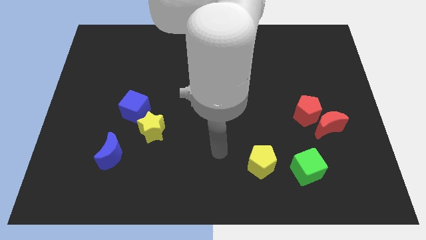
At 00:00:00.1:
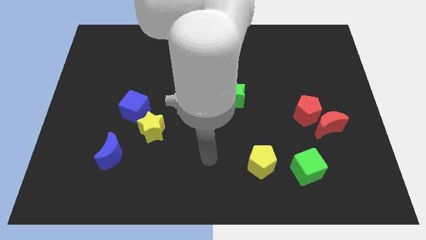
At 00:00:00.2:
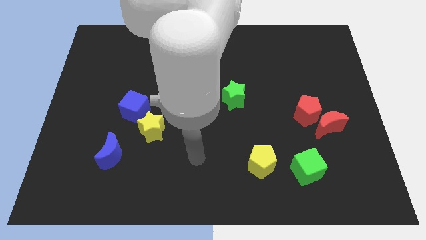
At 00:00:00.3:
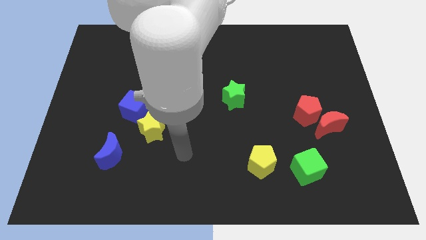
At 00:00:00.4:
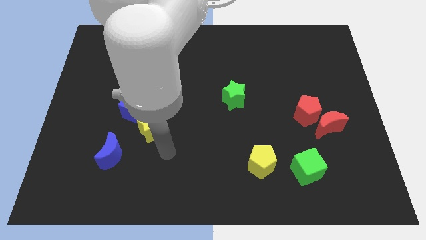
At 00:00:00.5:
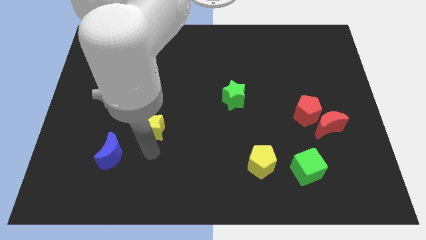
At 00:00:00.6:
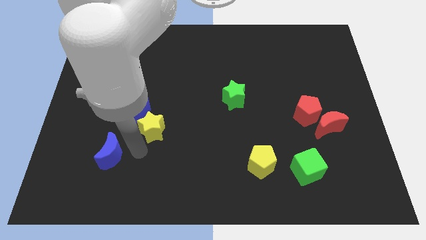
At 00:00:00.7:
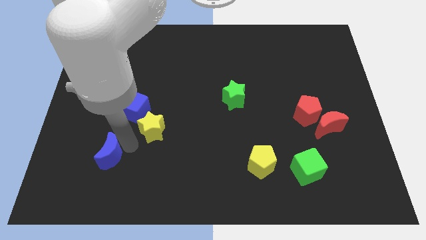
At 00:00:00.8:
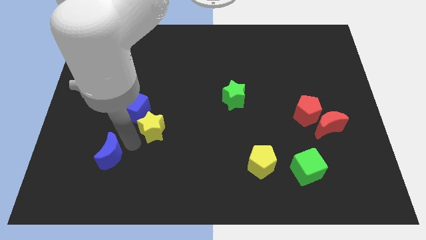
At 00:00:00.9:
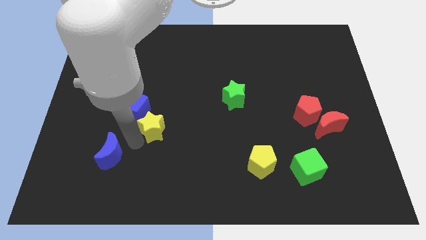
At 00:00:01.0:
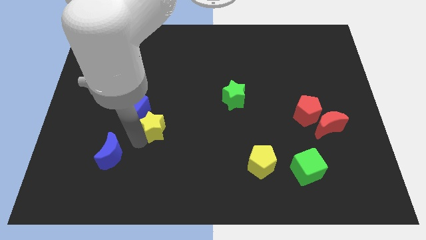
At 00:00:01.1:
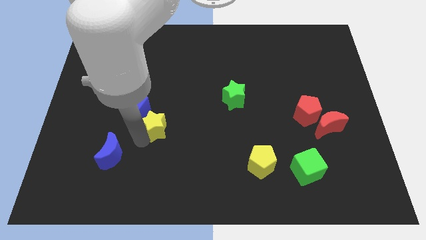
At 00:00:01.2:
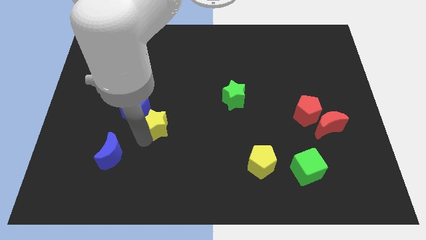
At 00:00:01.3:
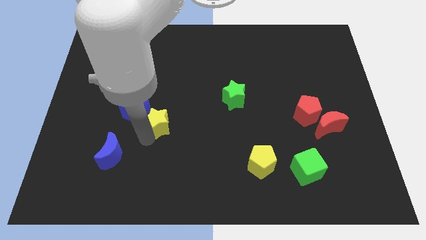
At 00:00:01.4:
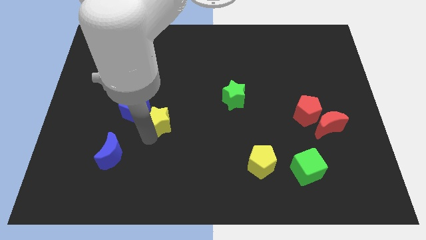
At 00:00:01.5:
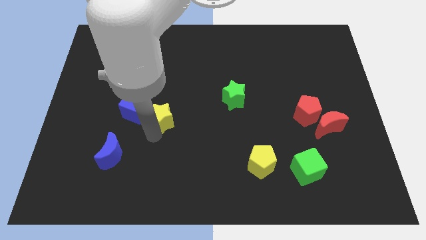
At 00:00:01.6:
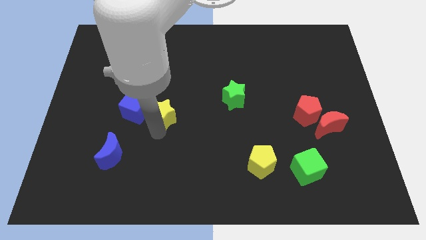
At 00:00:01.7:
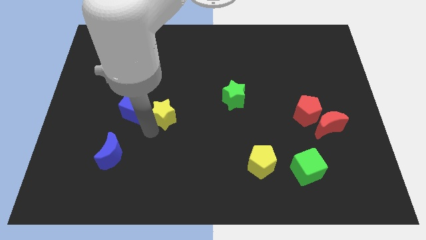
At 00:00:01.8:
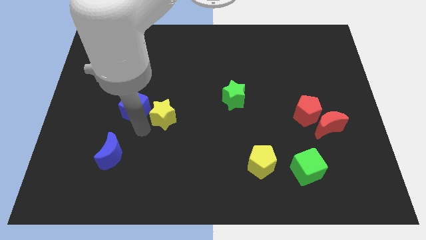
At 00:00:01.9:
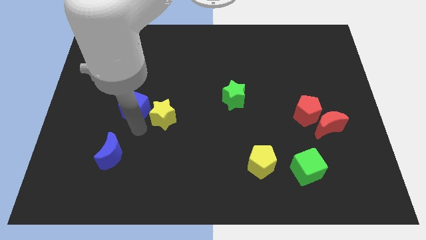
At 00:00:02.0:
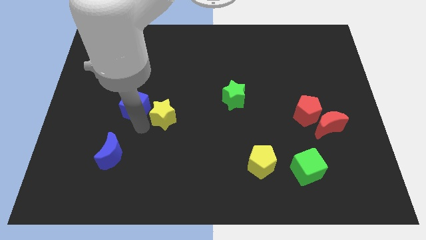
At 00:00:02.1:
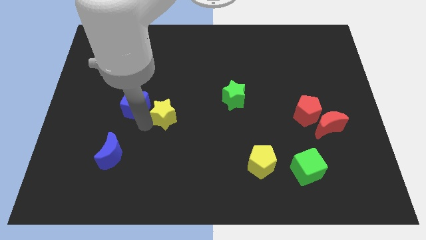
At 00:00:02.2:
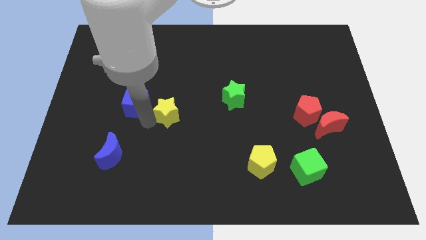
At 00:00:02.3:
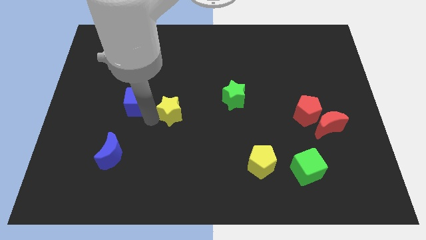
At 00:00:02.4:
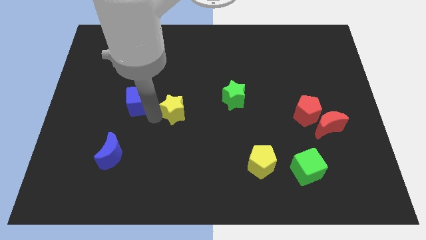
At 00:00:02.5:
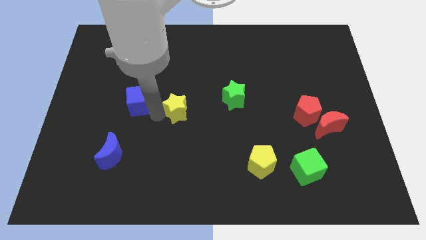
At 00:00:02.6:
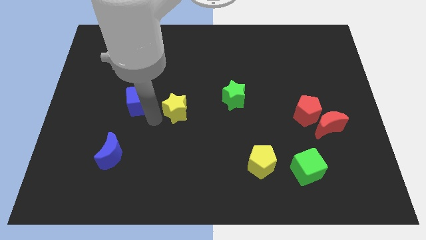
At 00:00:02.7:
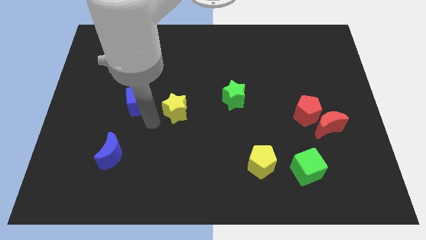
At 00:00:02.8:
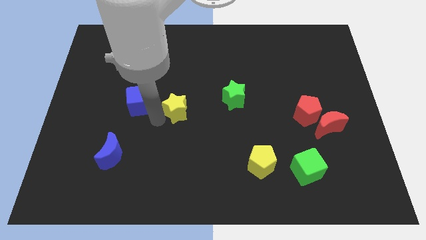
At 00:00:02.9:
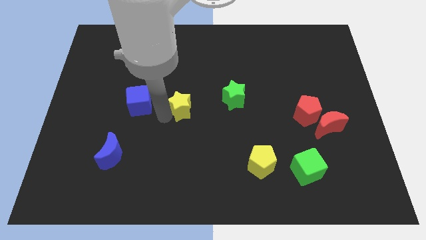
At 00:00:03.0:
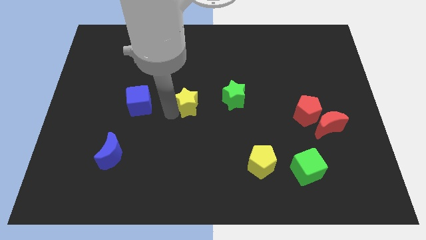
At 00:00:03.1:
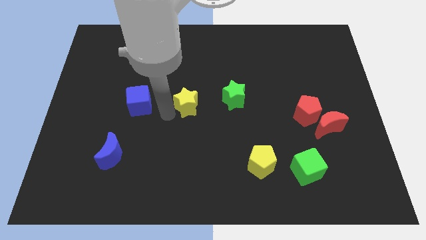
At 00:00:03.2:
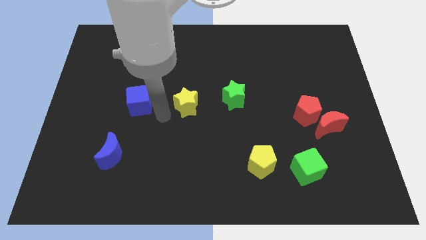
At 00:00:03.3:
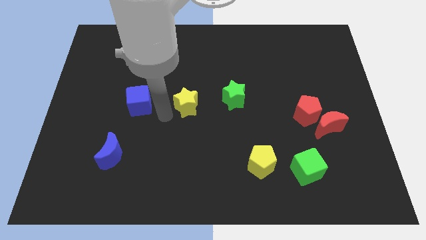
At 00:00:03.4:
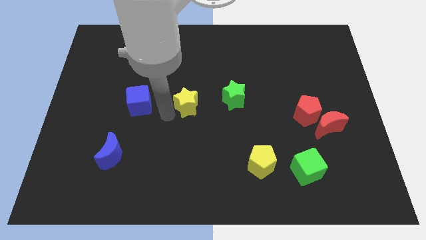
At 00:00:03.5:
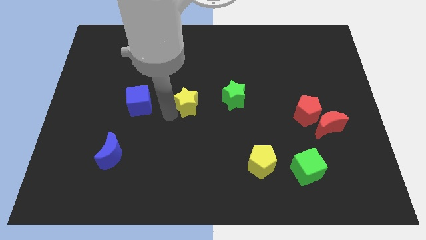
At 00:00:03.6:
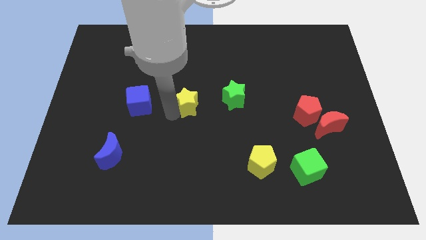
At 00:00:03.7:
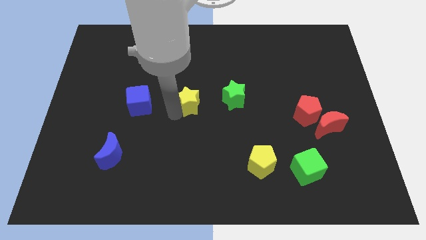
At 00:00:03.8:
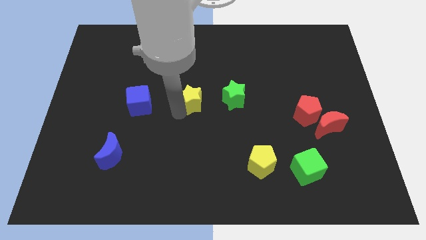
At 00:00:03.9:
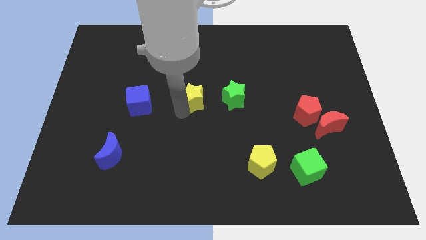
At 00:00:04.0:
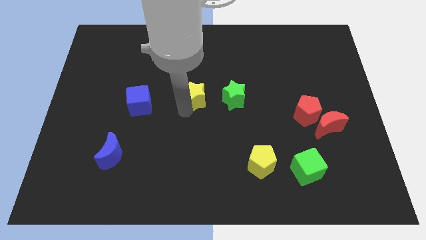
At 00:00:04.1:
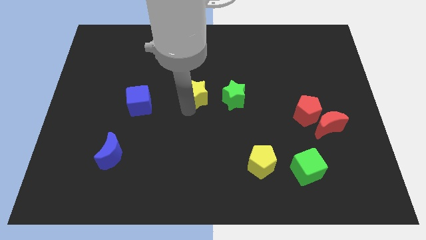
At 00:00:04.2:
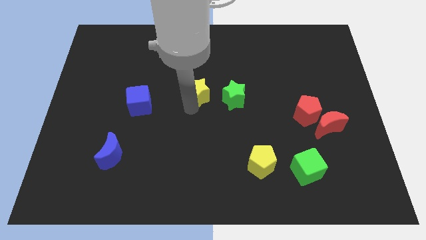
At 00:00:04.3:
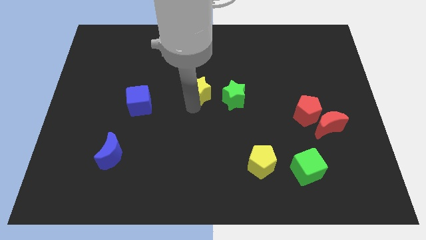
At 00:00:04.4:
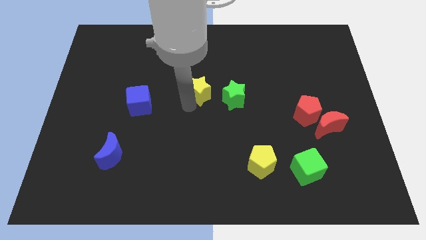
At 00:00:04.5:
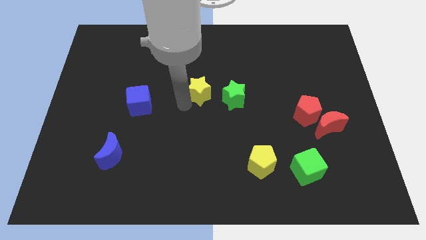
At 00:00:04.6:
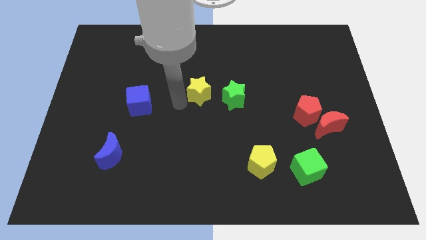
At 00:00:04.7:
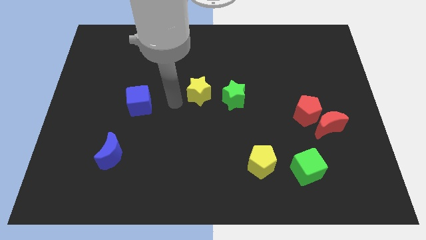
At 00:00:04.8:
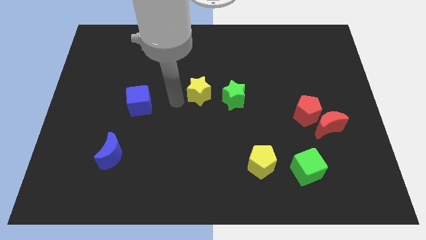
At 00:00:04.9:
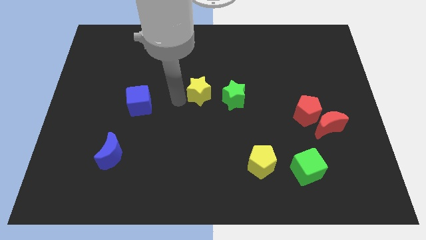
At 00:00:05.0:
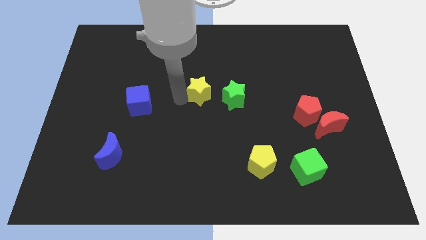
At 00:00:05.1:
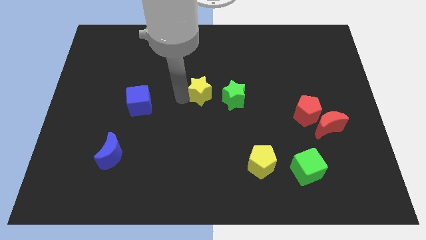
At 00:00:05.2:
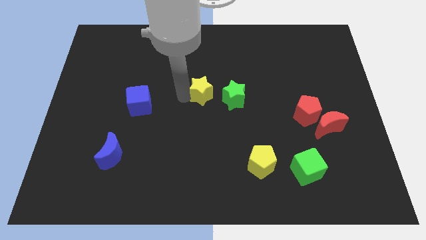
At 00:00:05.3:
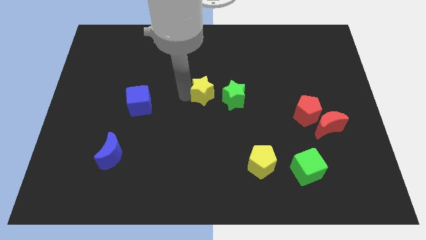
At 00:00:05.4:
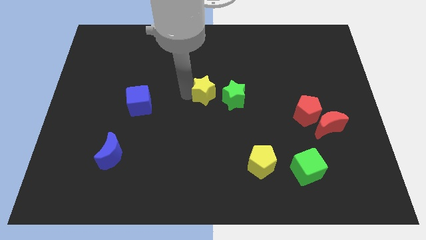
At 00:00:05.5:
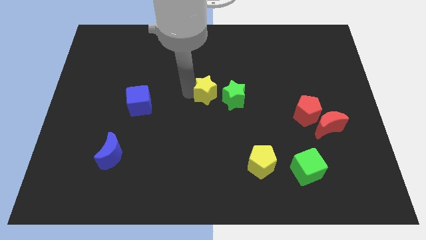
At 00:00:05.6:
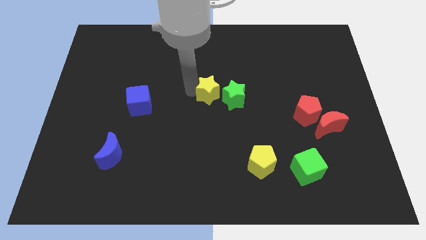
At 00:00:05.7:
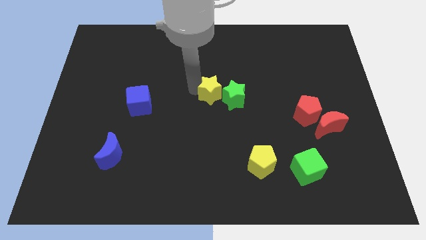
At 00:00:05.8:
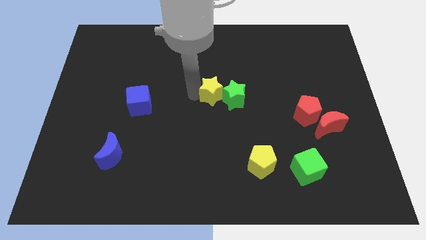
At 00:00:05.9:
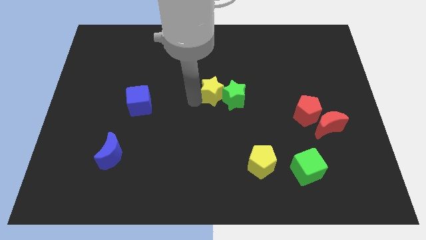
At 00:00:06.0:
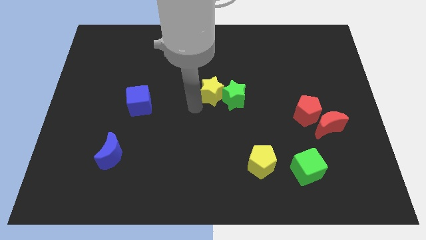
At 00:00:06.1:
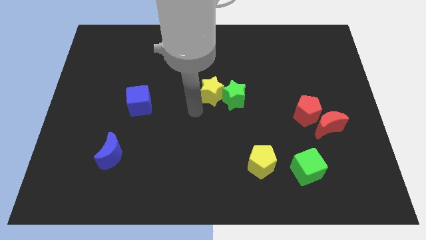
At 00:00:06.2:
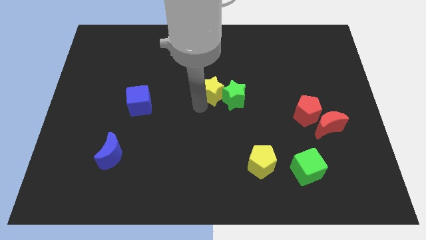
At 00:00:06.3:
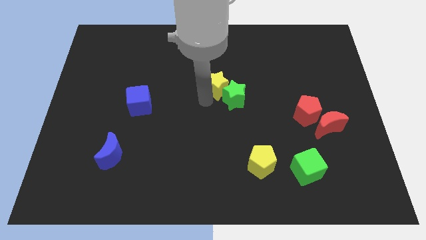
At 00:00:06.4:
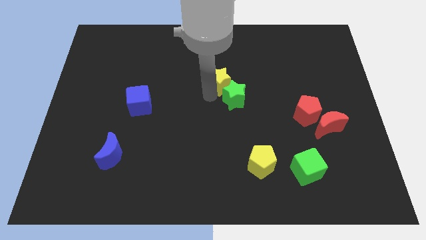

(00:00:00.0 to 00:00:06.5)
slide the yellow star diagonally upwards and right

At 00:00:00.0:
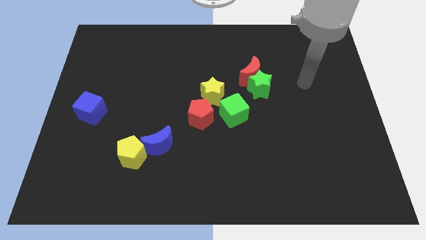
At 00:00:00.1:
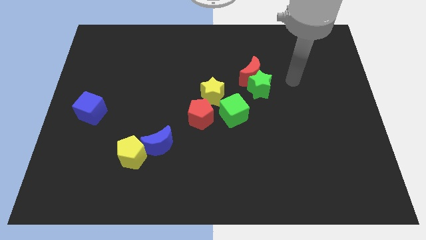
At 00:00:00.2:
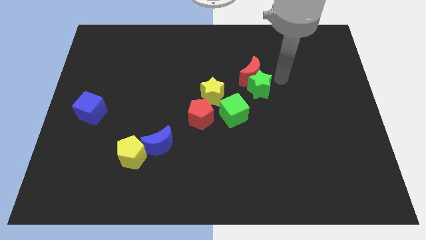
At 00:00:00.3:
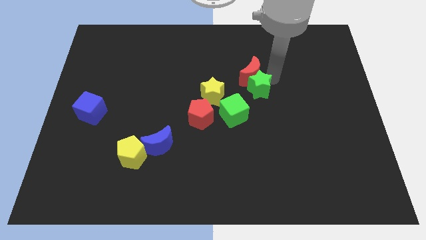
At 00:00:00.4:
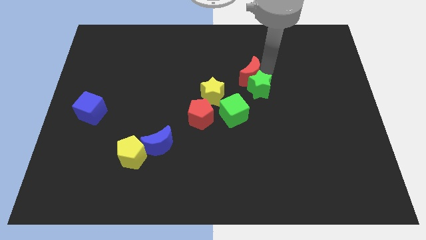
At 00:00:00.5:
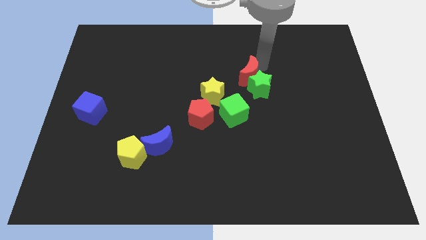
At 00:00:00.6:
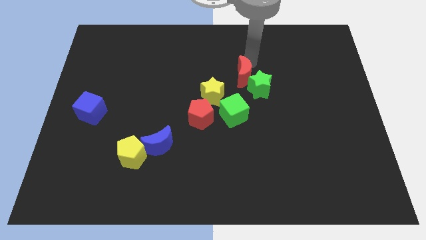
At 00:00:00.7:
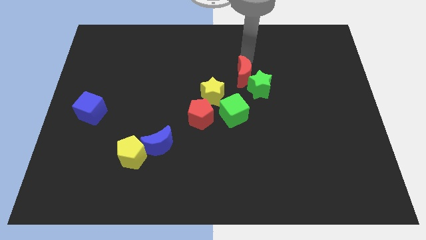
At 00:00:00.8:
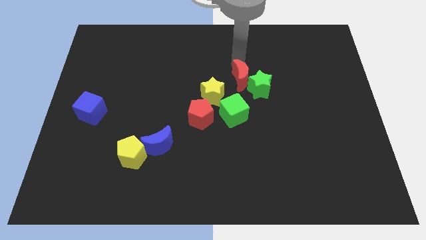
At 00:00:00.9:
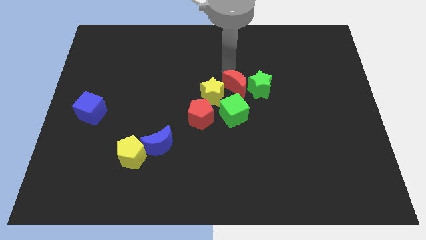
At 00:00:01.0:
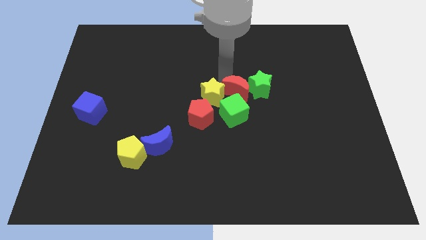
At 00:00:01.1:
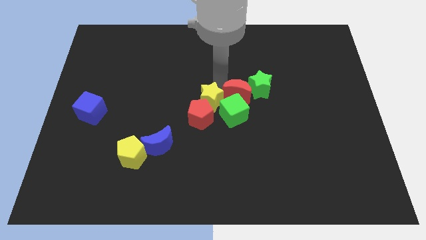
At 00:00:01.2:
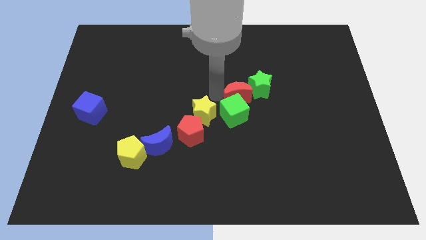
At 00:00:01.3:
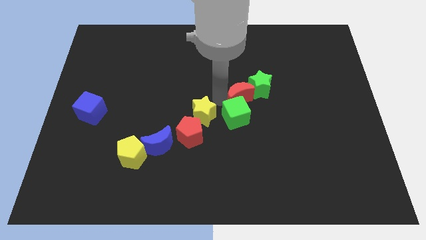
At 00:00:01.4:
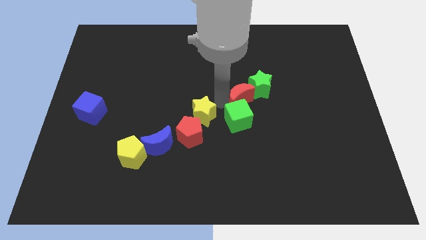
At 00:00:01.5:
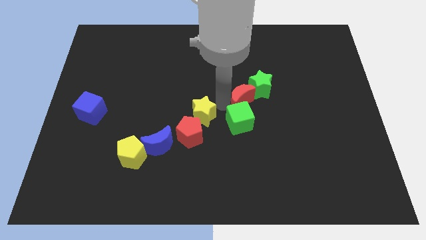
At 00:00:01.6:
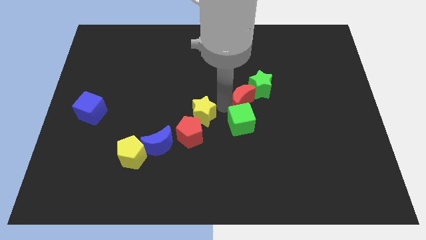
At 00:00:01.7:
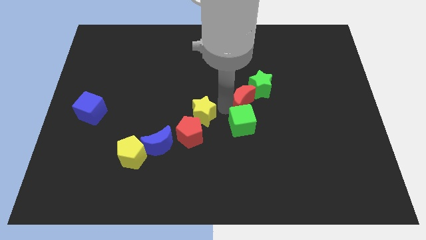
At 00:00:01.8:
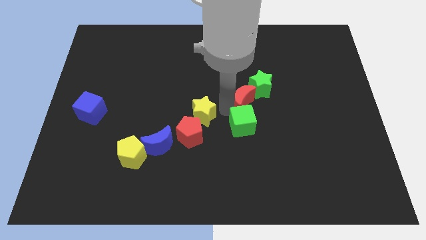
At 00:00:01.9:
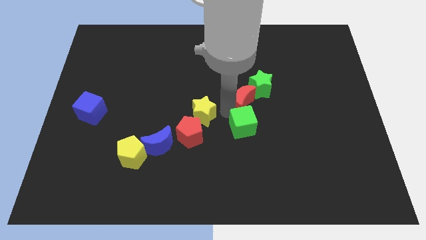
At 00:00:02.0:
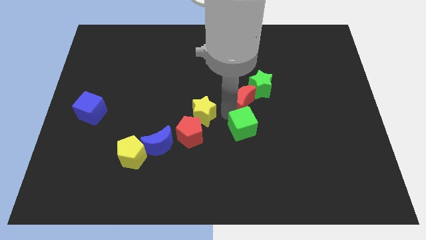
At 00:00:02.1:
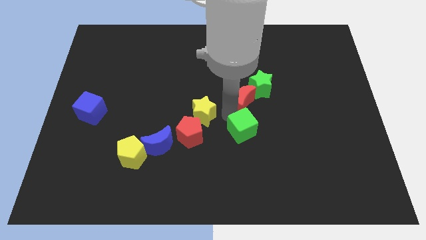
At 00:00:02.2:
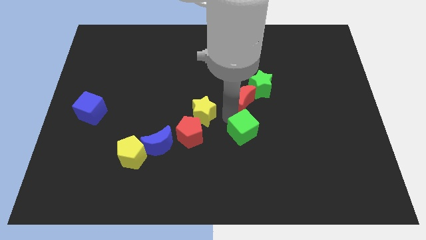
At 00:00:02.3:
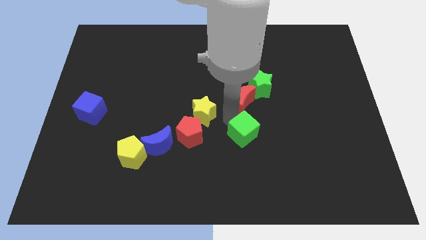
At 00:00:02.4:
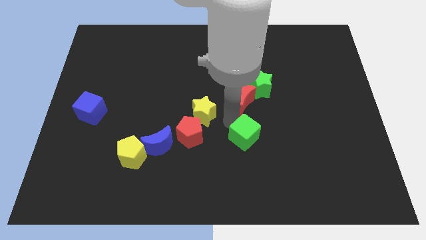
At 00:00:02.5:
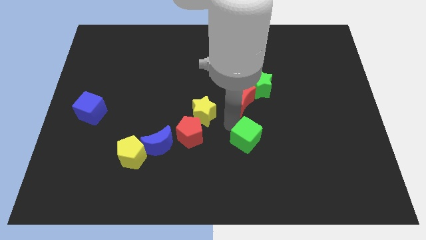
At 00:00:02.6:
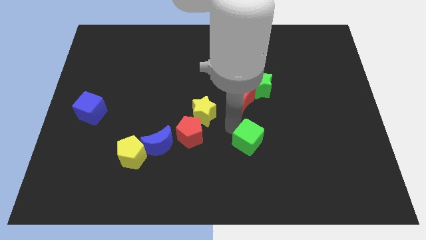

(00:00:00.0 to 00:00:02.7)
move the green cube a bit diagonally downwards and right
